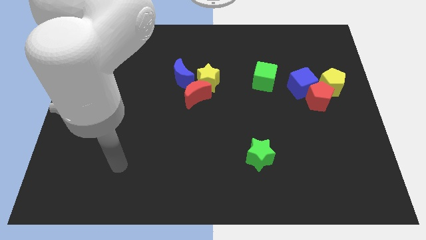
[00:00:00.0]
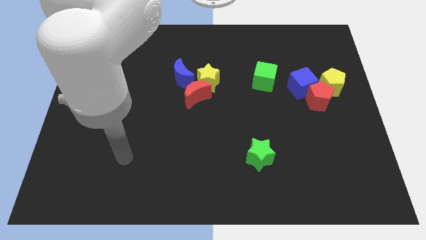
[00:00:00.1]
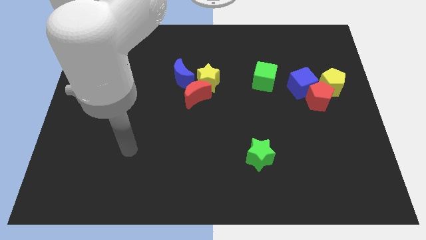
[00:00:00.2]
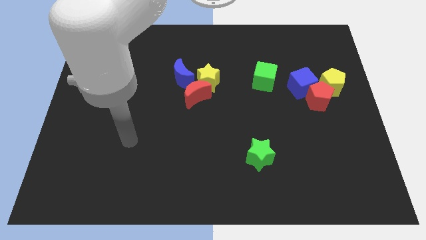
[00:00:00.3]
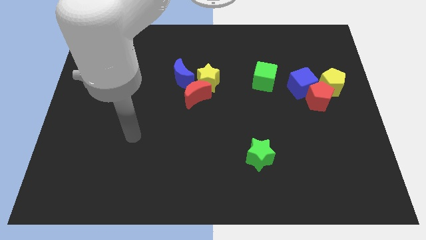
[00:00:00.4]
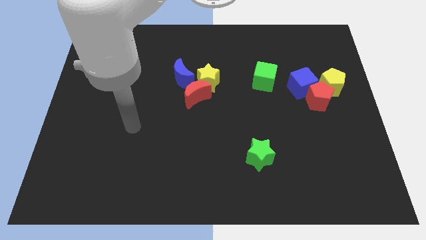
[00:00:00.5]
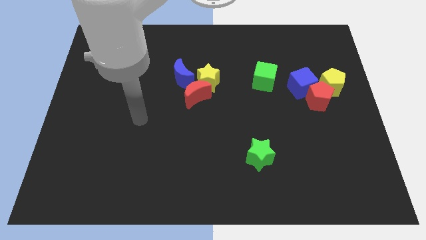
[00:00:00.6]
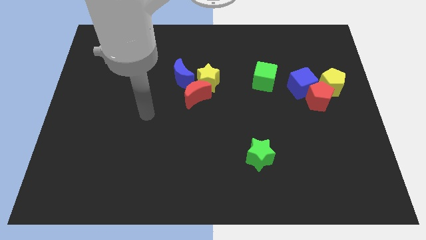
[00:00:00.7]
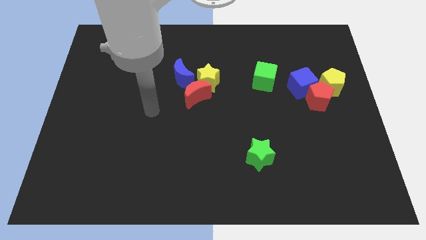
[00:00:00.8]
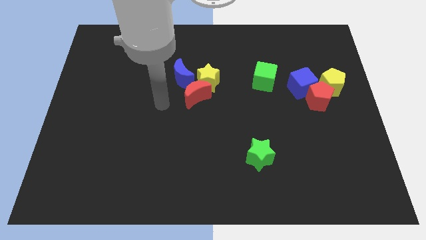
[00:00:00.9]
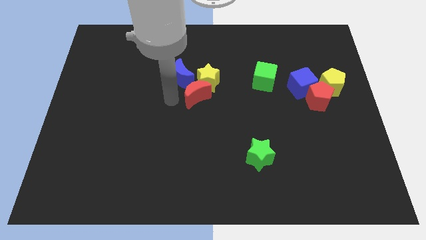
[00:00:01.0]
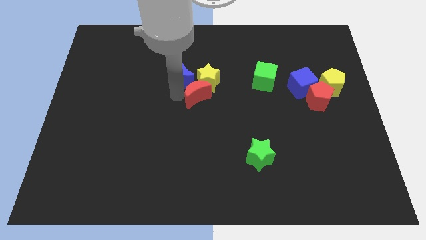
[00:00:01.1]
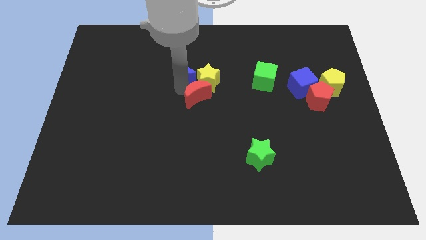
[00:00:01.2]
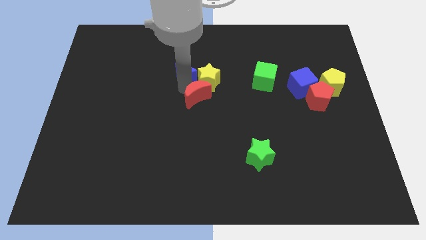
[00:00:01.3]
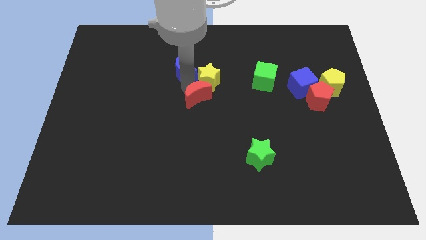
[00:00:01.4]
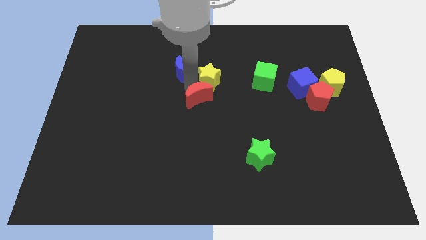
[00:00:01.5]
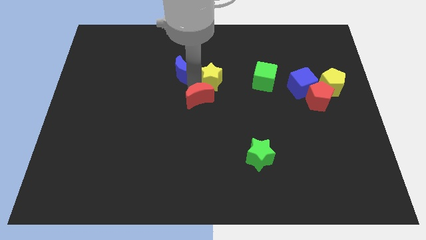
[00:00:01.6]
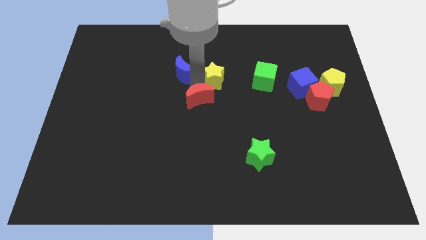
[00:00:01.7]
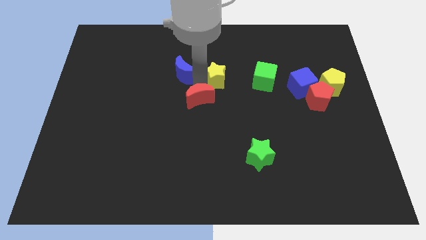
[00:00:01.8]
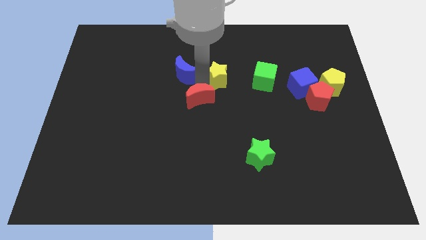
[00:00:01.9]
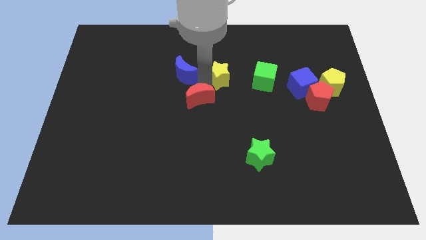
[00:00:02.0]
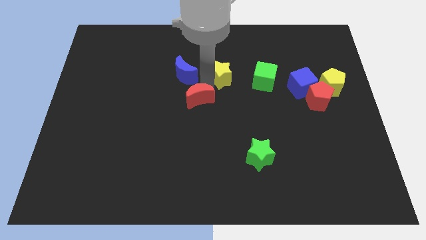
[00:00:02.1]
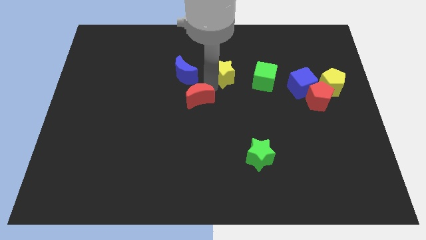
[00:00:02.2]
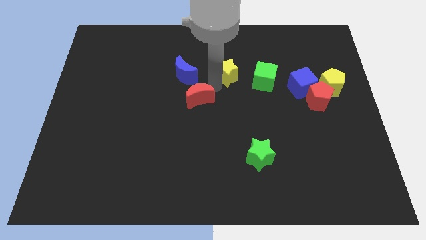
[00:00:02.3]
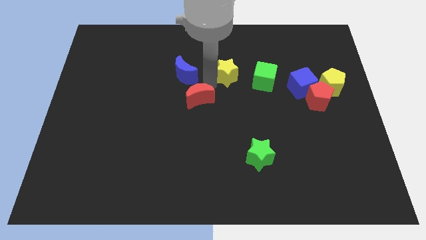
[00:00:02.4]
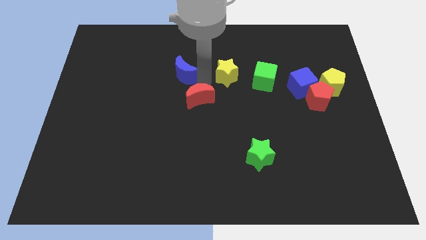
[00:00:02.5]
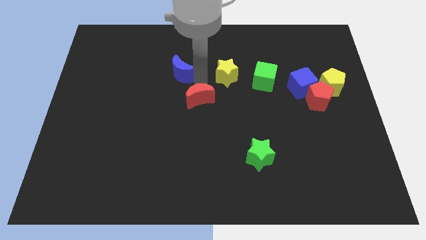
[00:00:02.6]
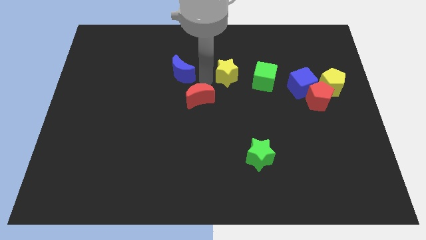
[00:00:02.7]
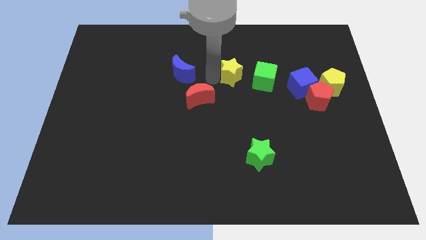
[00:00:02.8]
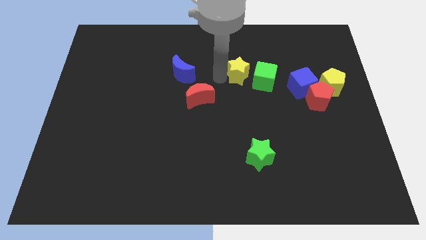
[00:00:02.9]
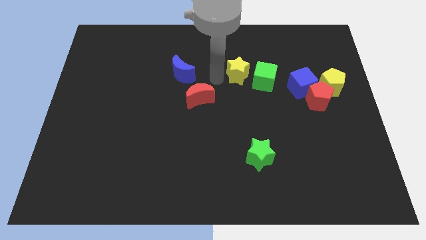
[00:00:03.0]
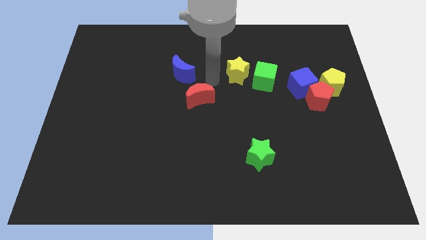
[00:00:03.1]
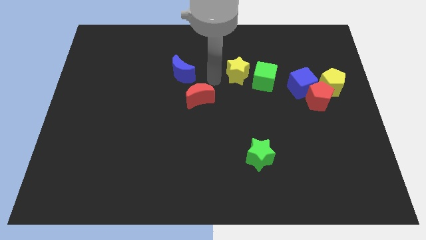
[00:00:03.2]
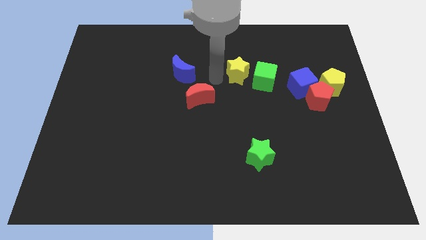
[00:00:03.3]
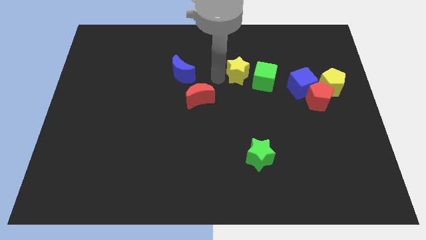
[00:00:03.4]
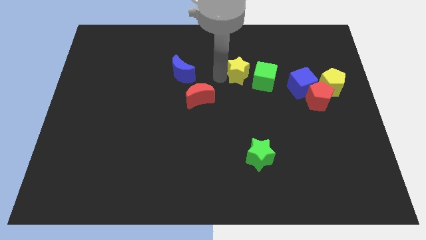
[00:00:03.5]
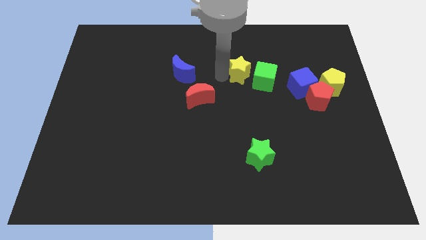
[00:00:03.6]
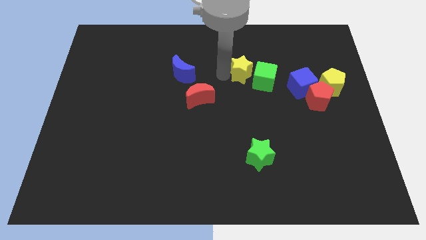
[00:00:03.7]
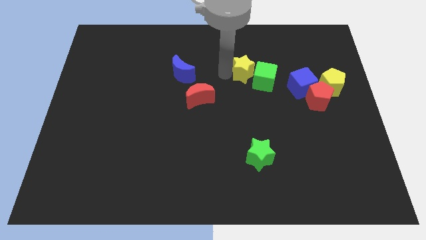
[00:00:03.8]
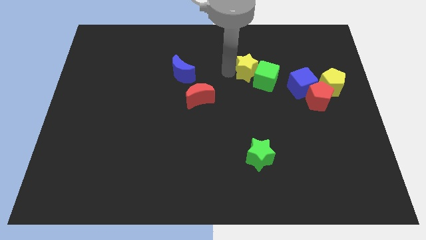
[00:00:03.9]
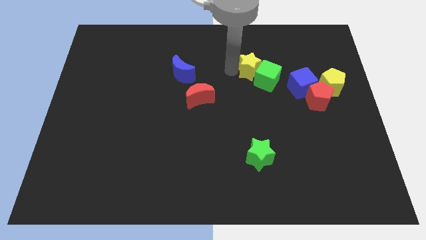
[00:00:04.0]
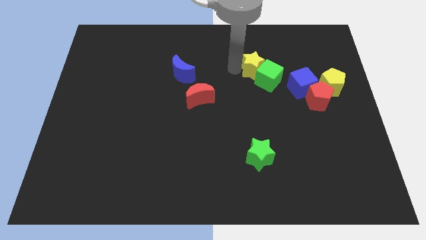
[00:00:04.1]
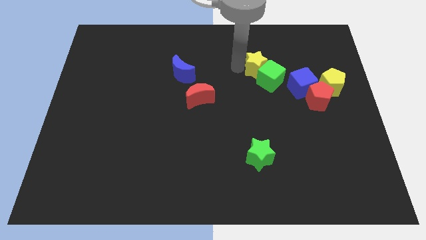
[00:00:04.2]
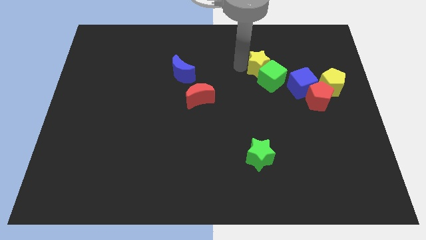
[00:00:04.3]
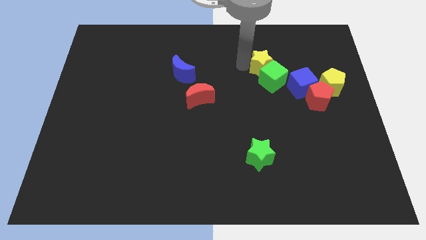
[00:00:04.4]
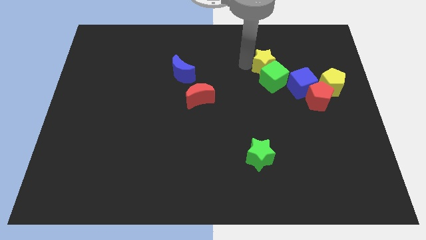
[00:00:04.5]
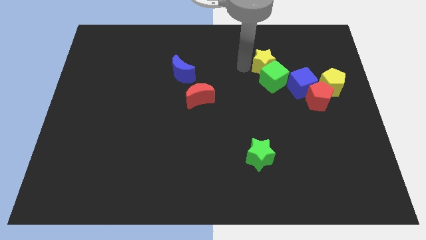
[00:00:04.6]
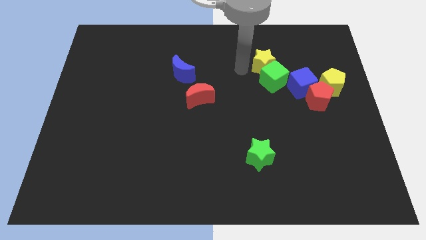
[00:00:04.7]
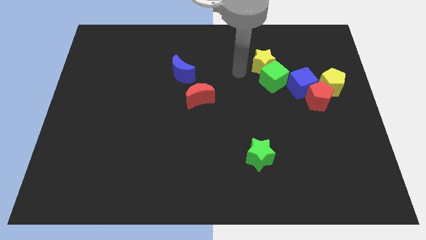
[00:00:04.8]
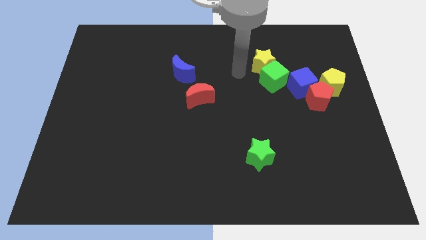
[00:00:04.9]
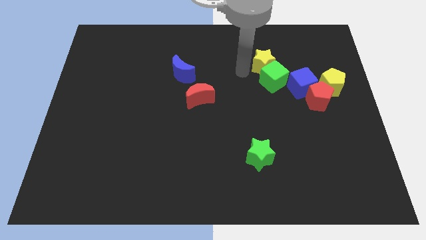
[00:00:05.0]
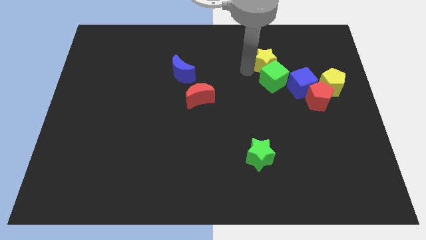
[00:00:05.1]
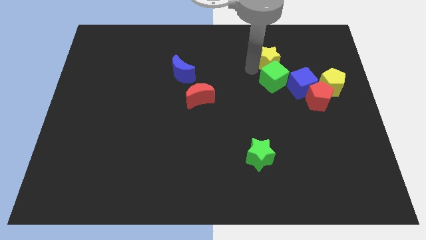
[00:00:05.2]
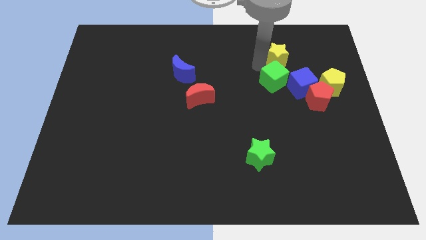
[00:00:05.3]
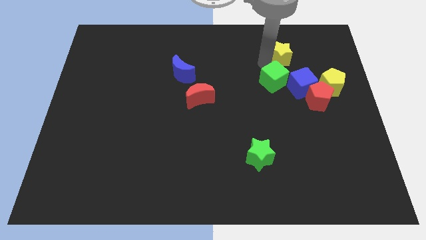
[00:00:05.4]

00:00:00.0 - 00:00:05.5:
slide the yellow star to the top side of the blue cube

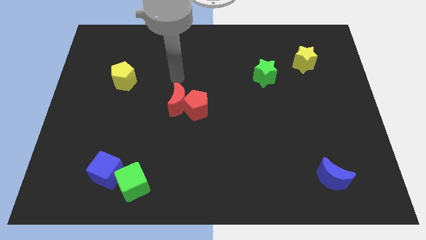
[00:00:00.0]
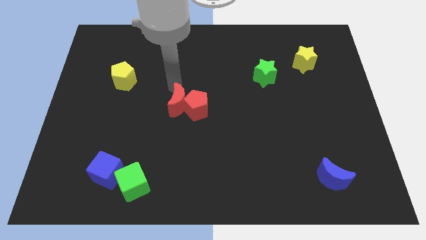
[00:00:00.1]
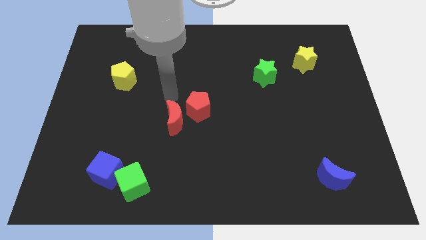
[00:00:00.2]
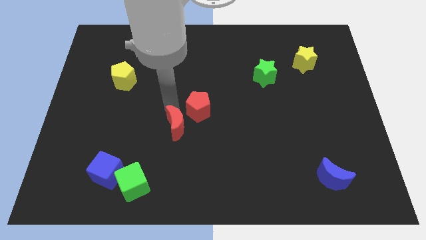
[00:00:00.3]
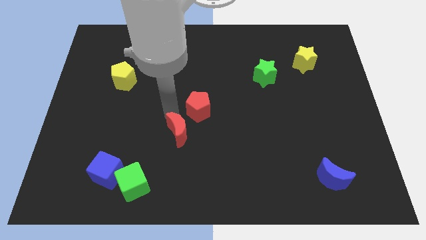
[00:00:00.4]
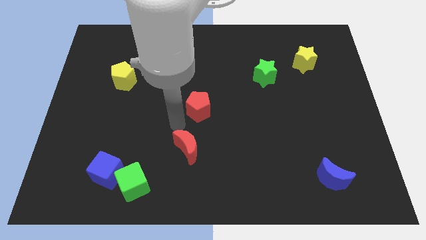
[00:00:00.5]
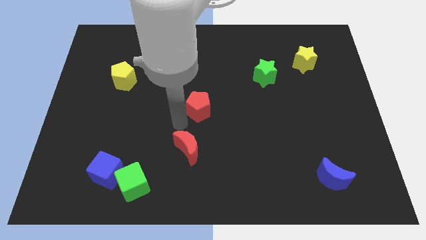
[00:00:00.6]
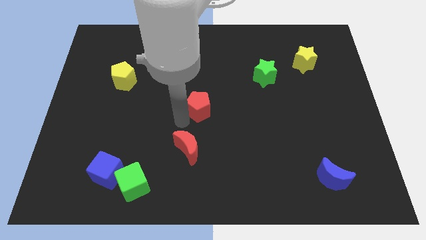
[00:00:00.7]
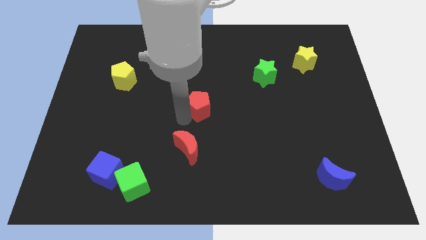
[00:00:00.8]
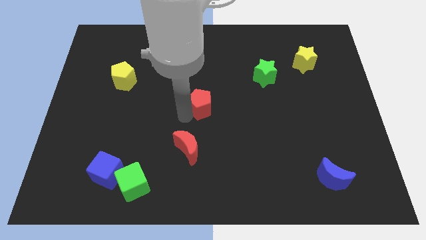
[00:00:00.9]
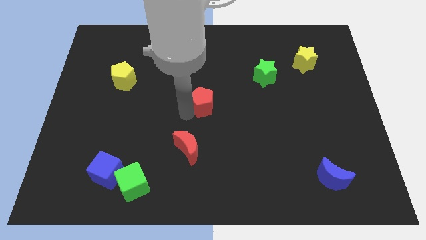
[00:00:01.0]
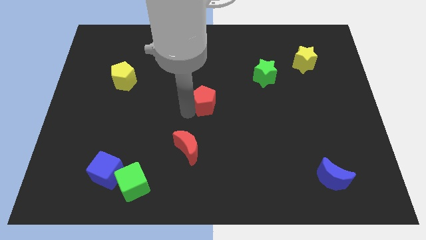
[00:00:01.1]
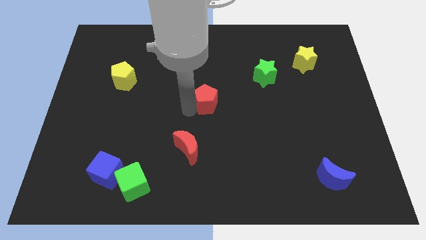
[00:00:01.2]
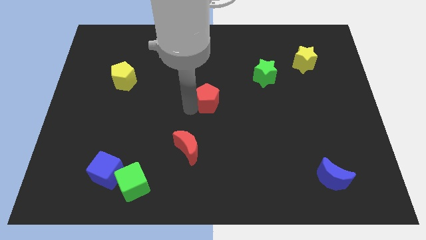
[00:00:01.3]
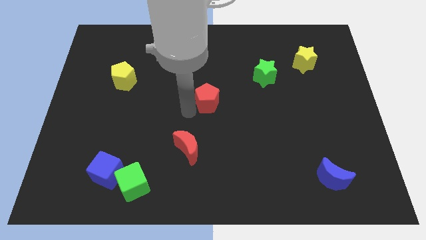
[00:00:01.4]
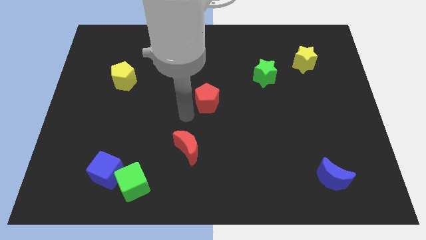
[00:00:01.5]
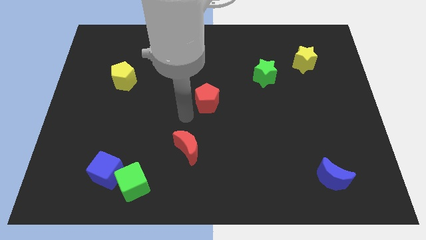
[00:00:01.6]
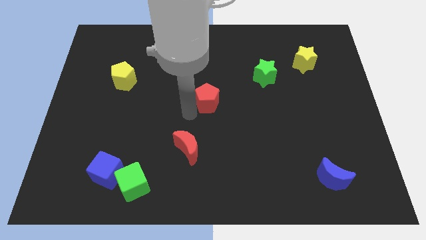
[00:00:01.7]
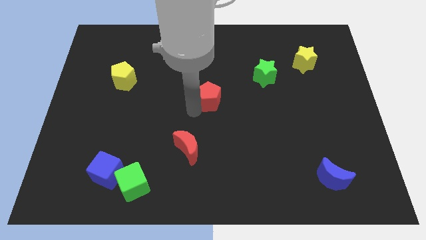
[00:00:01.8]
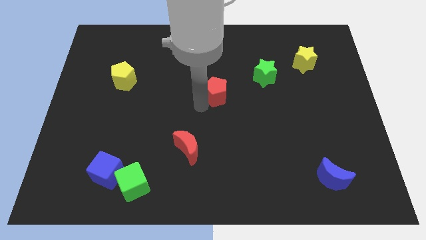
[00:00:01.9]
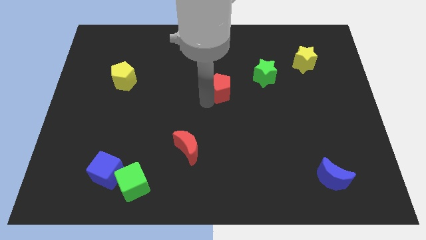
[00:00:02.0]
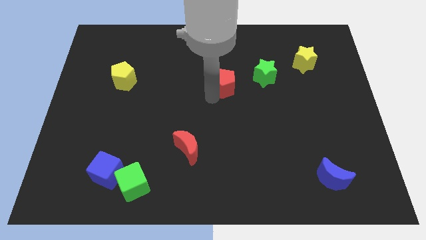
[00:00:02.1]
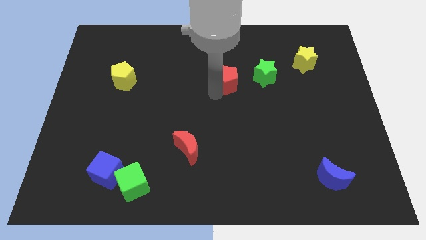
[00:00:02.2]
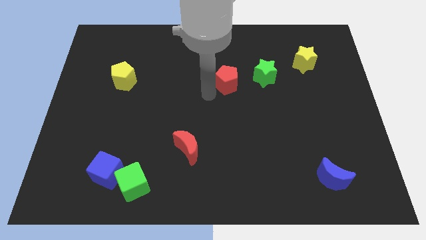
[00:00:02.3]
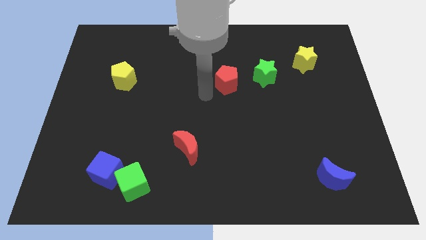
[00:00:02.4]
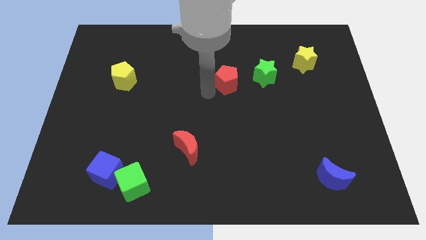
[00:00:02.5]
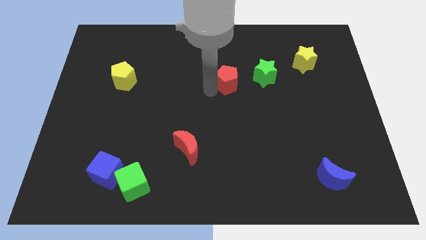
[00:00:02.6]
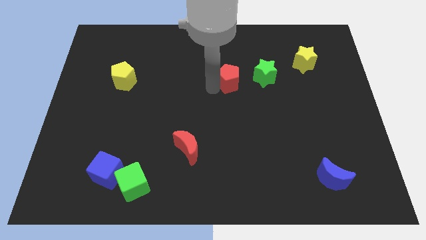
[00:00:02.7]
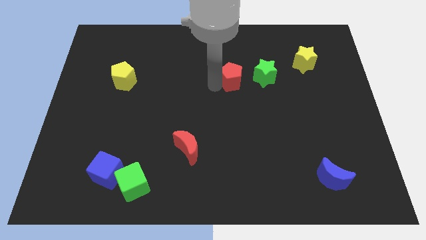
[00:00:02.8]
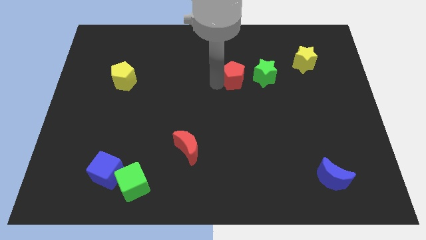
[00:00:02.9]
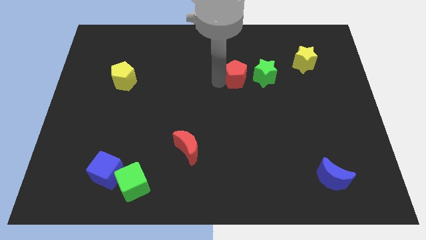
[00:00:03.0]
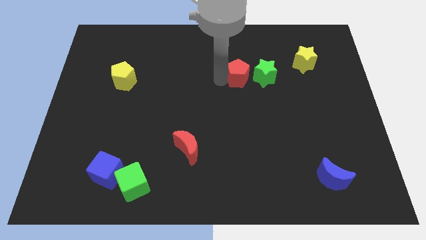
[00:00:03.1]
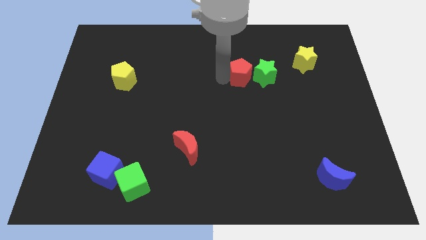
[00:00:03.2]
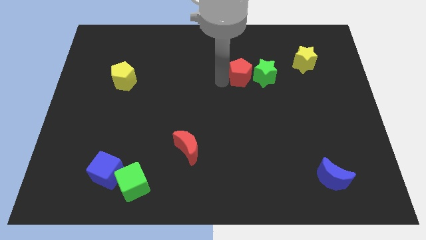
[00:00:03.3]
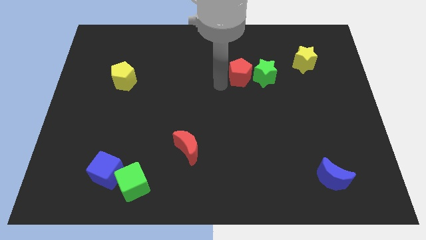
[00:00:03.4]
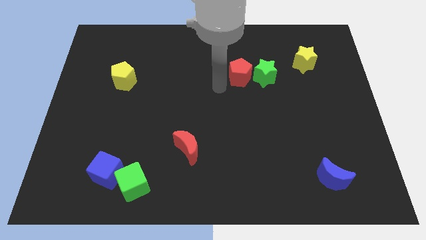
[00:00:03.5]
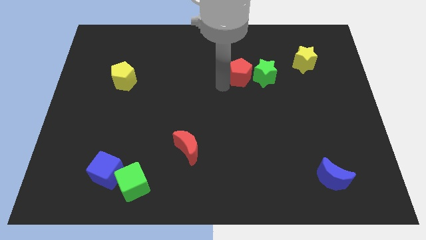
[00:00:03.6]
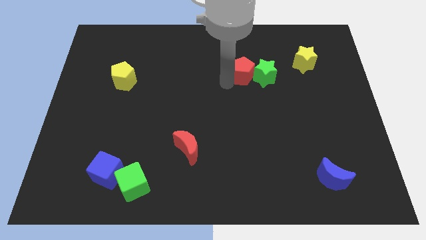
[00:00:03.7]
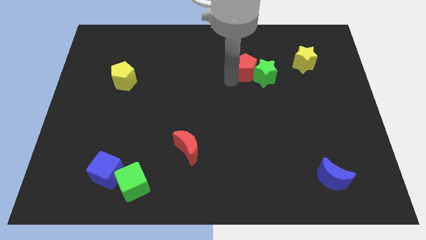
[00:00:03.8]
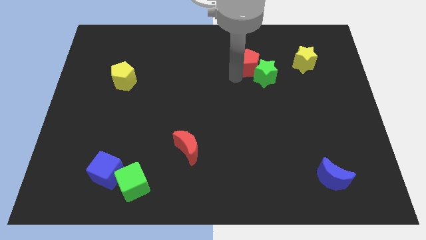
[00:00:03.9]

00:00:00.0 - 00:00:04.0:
push the red pentagon just left of the yellow star
